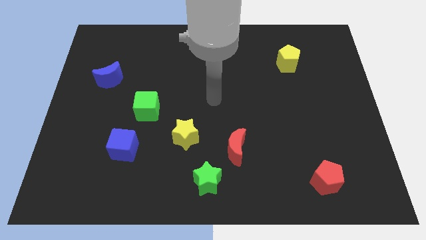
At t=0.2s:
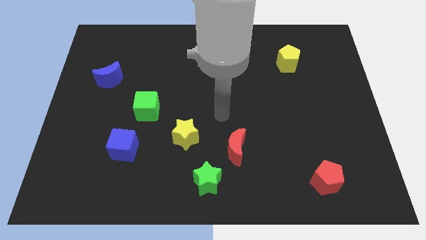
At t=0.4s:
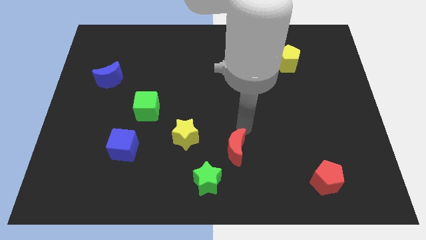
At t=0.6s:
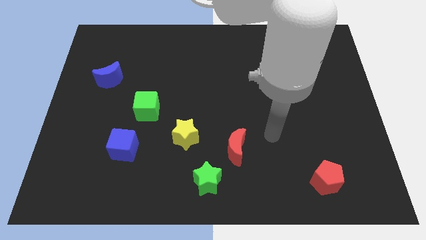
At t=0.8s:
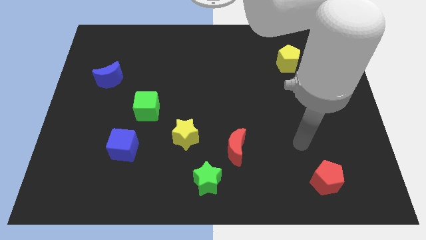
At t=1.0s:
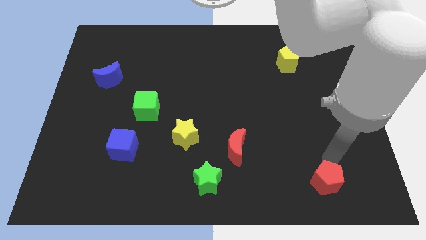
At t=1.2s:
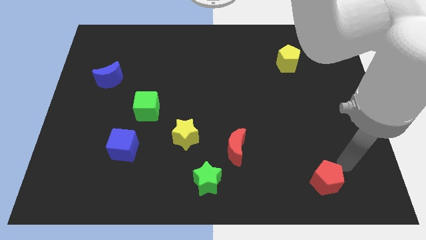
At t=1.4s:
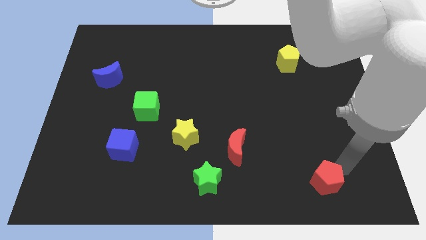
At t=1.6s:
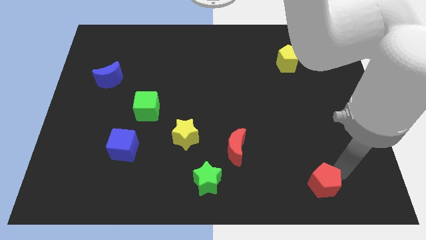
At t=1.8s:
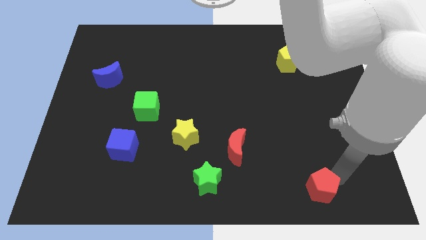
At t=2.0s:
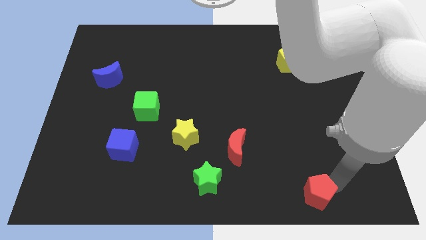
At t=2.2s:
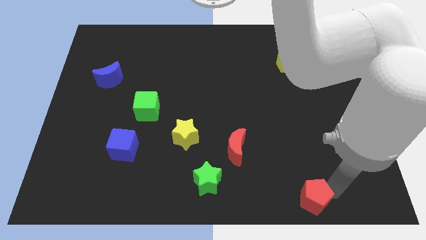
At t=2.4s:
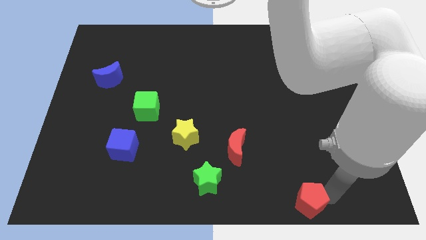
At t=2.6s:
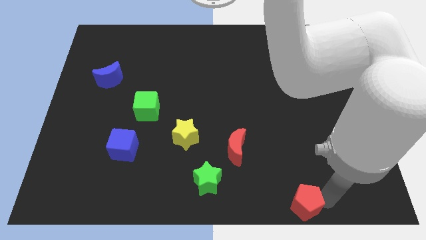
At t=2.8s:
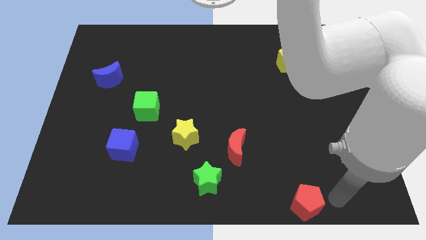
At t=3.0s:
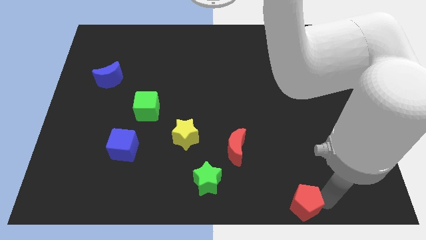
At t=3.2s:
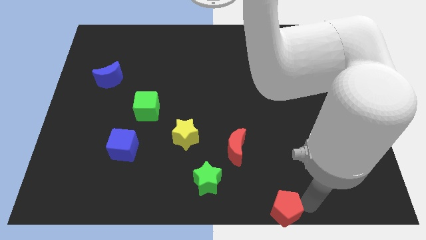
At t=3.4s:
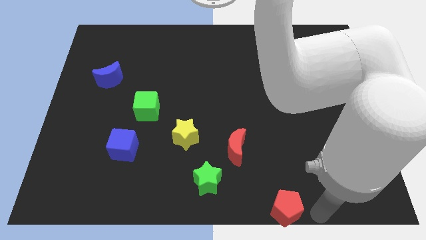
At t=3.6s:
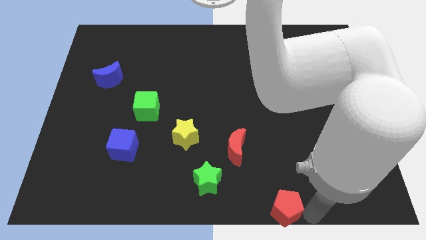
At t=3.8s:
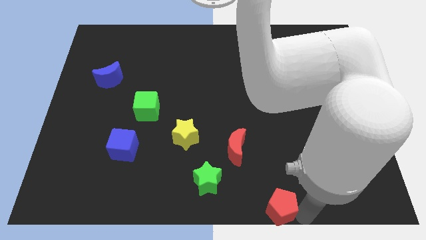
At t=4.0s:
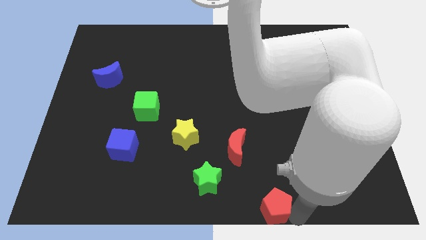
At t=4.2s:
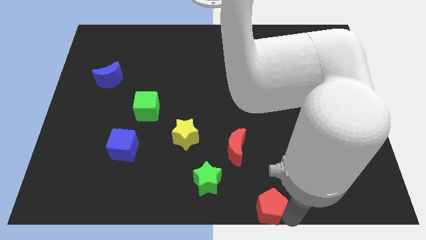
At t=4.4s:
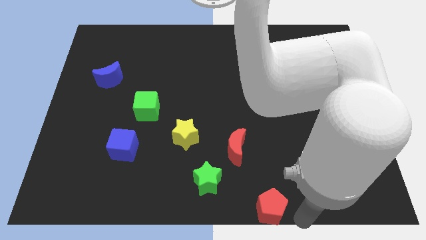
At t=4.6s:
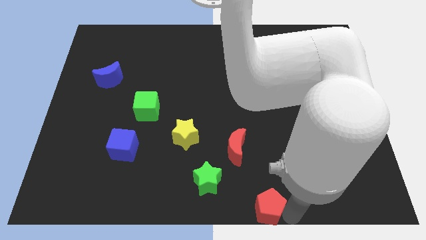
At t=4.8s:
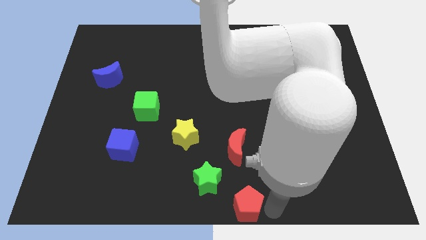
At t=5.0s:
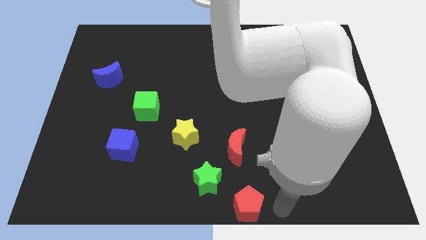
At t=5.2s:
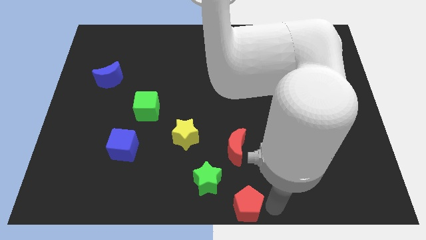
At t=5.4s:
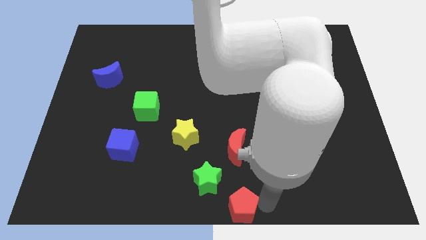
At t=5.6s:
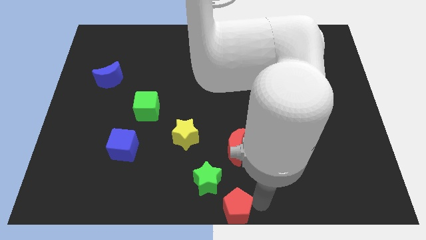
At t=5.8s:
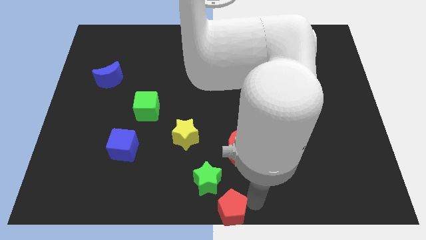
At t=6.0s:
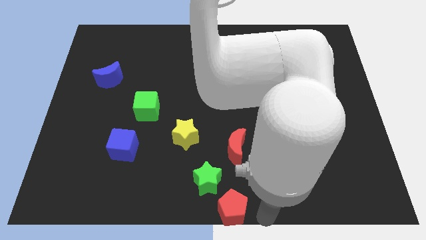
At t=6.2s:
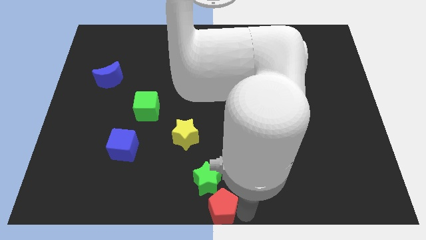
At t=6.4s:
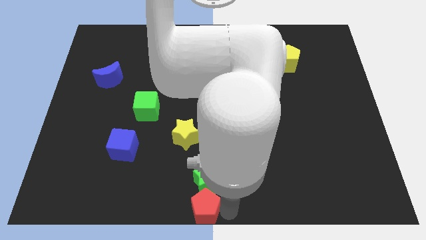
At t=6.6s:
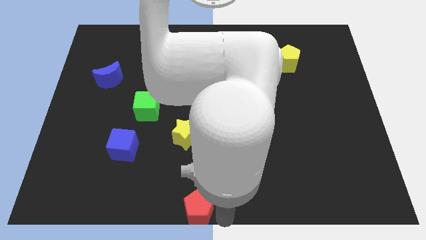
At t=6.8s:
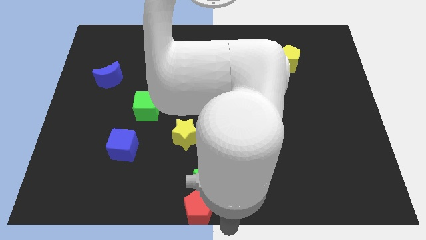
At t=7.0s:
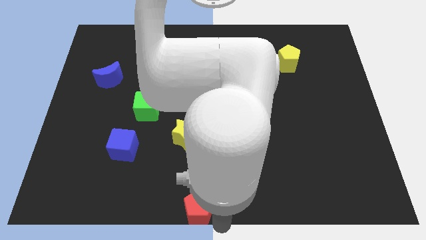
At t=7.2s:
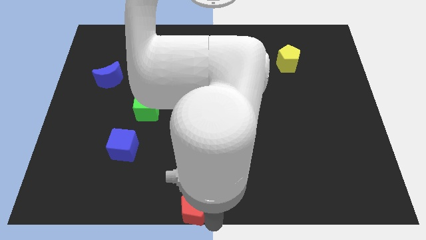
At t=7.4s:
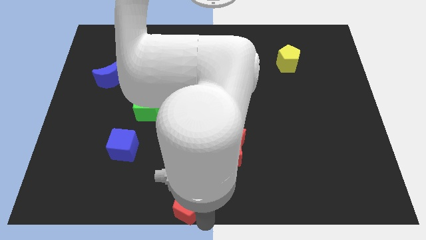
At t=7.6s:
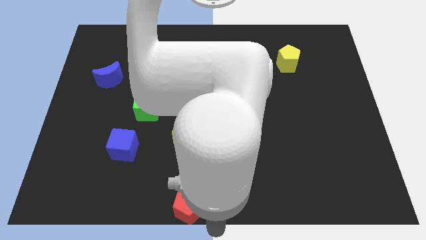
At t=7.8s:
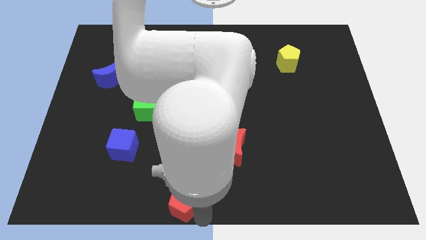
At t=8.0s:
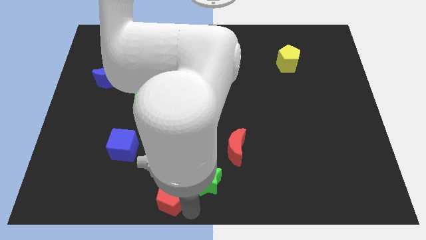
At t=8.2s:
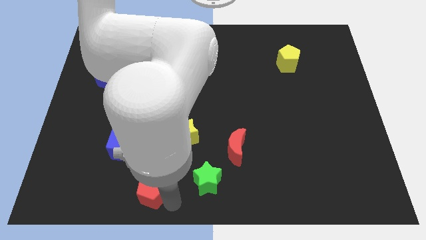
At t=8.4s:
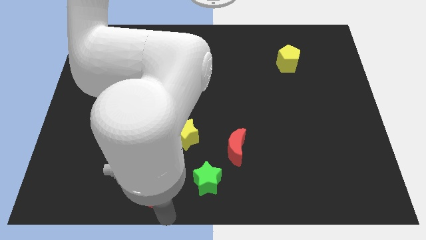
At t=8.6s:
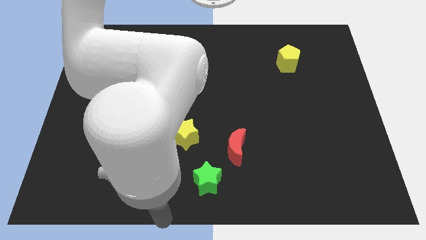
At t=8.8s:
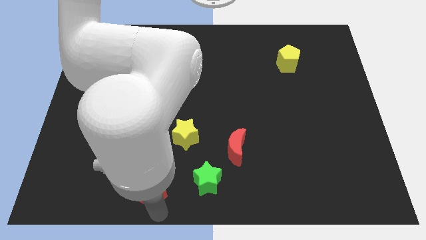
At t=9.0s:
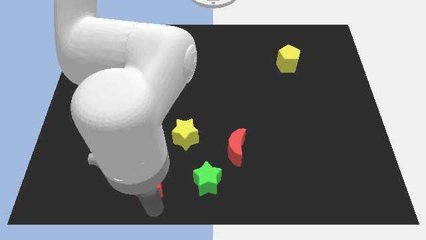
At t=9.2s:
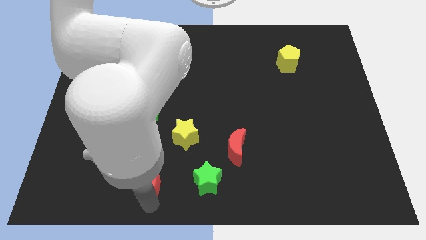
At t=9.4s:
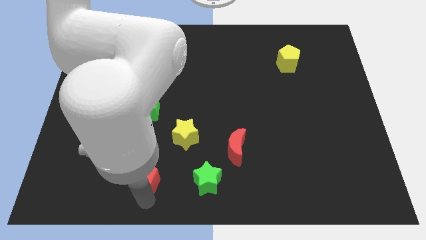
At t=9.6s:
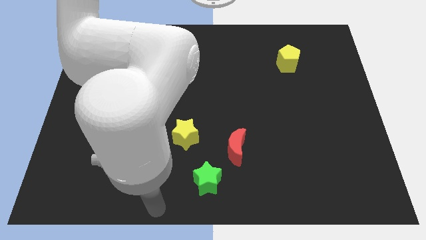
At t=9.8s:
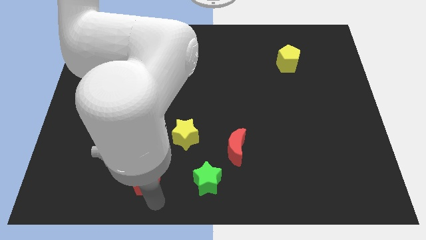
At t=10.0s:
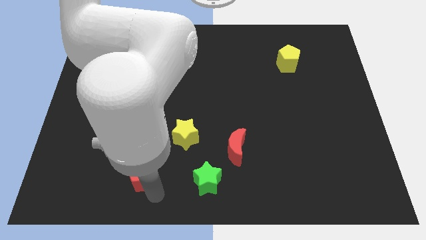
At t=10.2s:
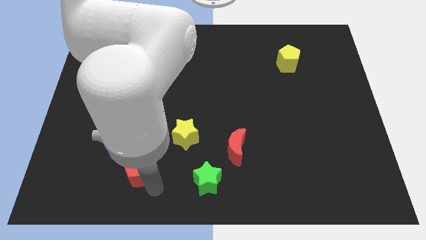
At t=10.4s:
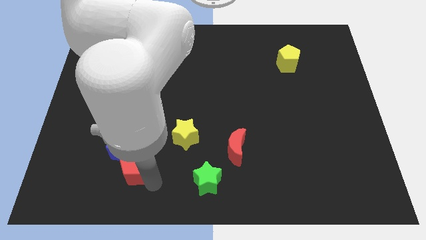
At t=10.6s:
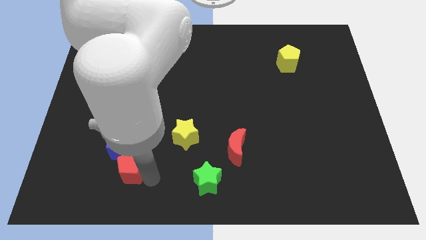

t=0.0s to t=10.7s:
push the red pentagon close to the blue cube

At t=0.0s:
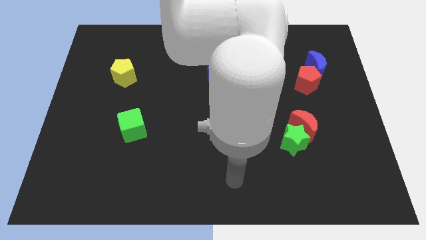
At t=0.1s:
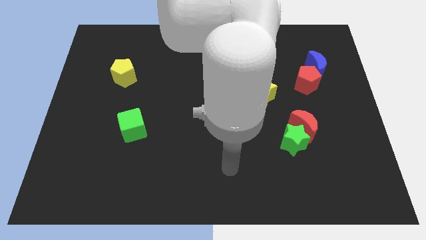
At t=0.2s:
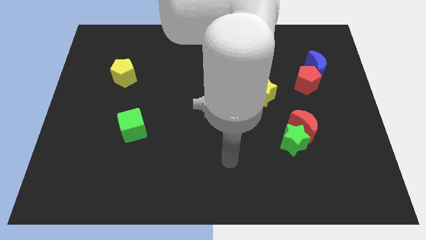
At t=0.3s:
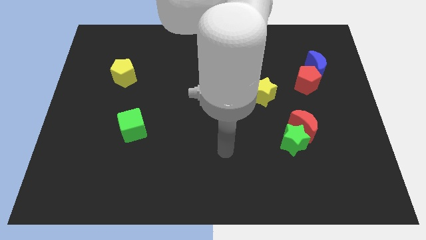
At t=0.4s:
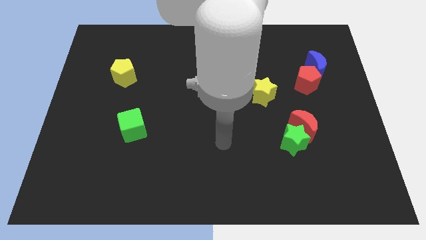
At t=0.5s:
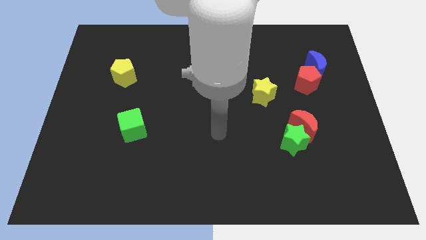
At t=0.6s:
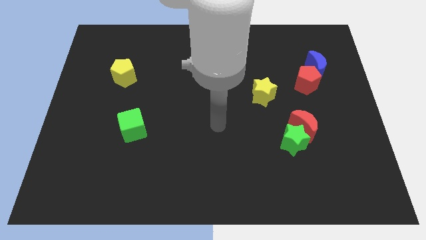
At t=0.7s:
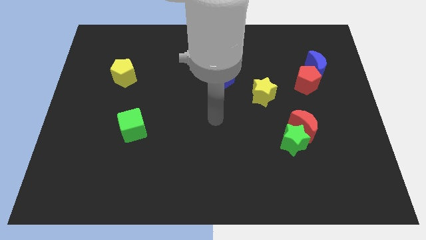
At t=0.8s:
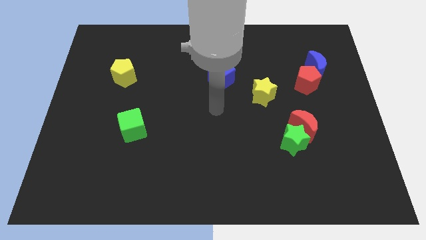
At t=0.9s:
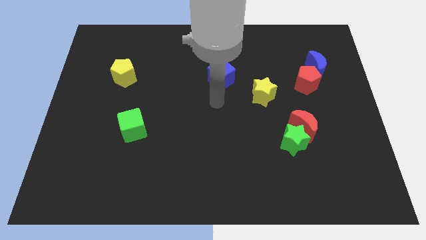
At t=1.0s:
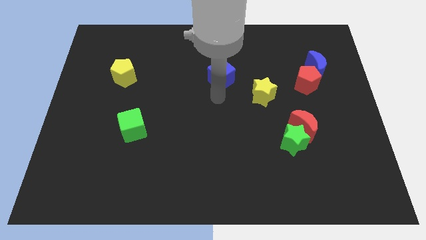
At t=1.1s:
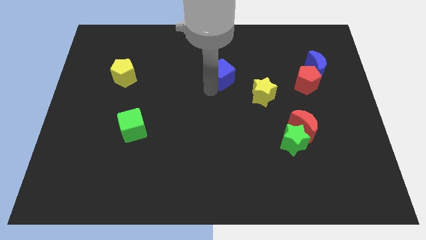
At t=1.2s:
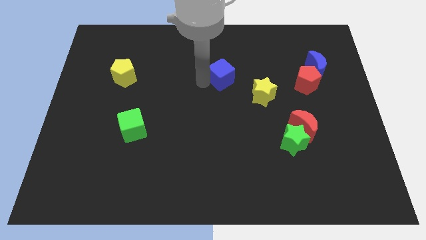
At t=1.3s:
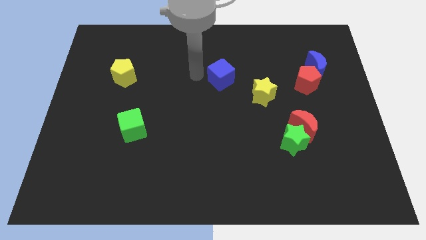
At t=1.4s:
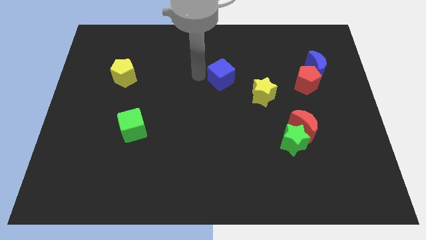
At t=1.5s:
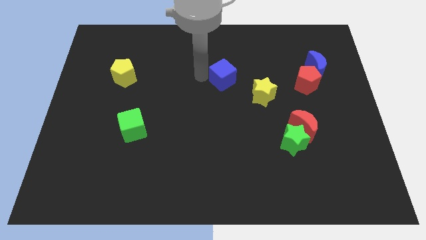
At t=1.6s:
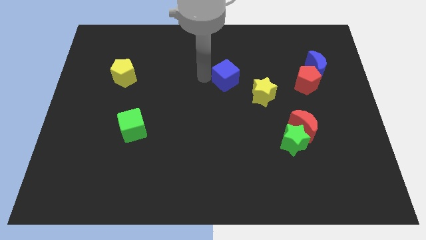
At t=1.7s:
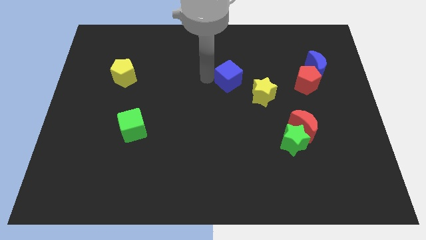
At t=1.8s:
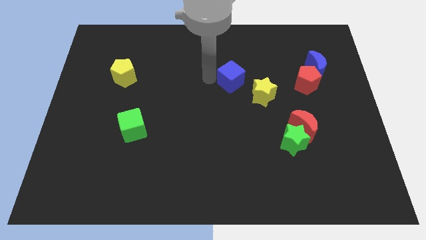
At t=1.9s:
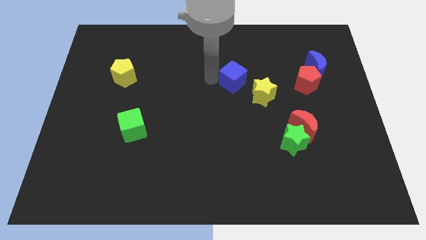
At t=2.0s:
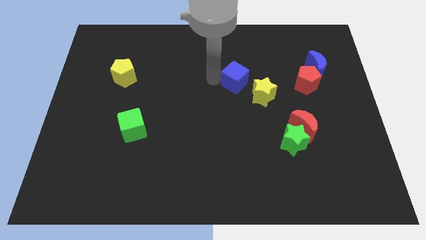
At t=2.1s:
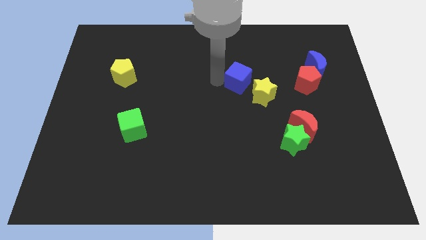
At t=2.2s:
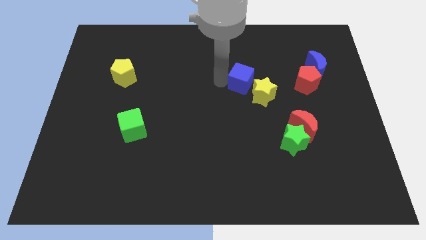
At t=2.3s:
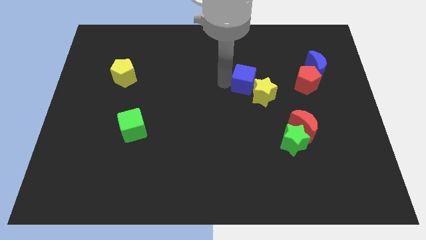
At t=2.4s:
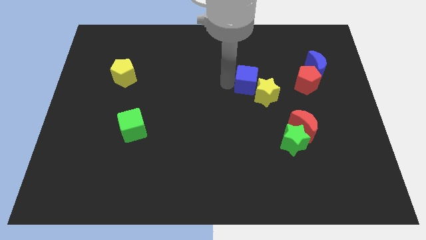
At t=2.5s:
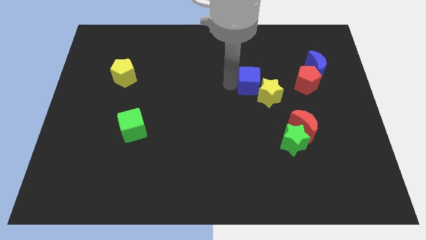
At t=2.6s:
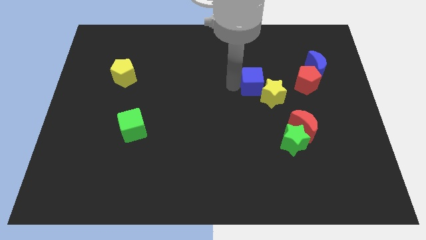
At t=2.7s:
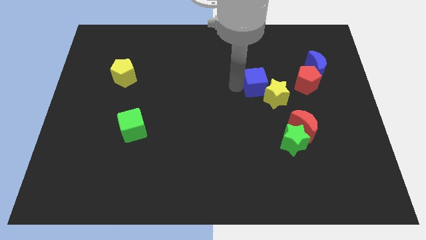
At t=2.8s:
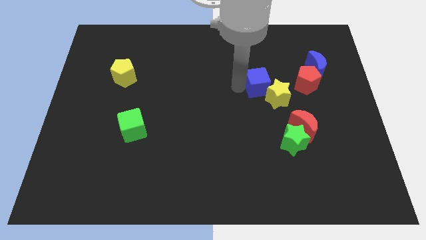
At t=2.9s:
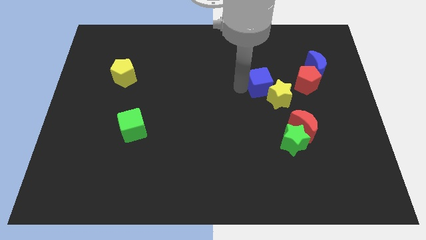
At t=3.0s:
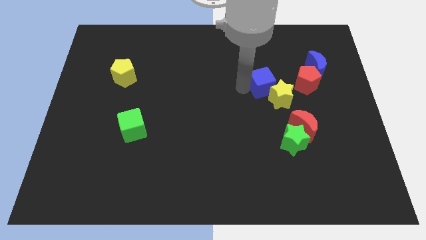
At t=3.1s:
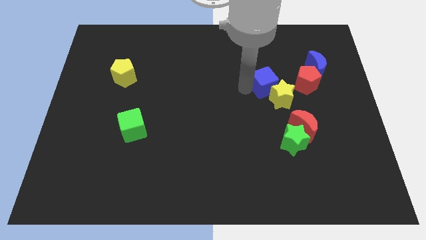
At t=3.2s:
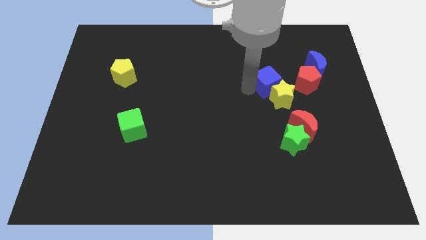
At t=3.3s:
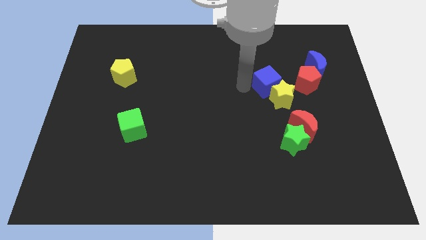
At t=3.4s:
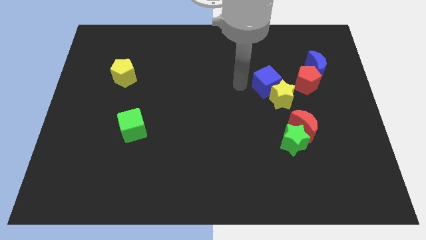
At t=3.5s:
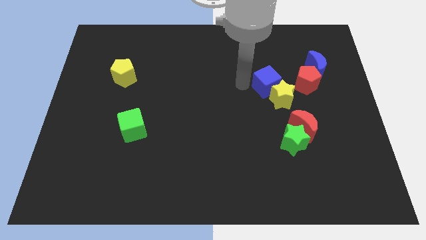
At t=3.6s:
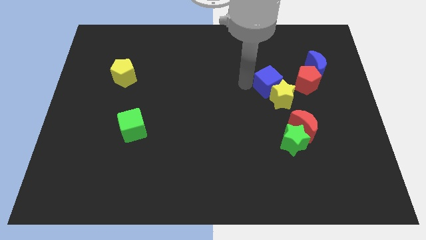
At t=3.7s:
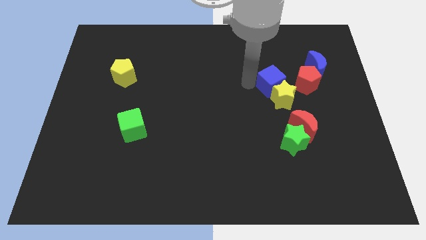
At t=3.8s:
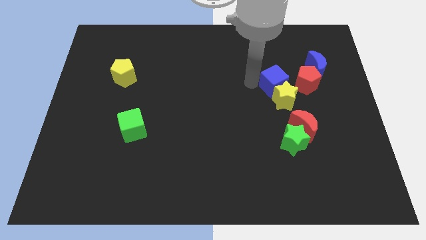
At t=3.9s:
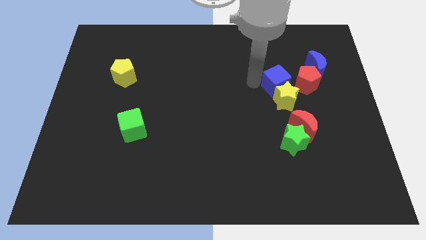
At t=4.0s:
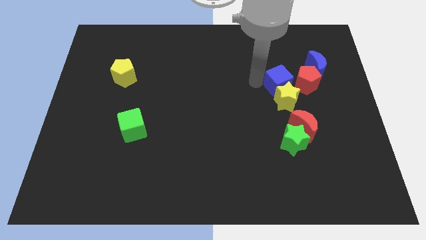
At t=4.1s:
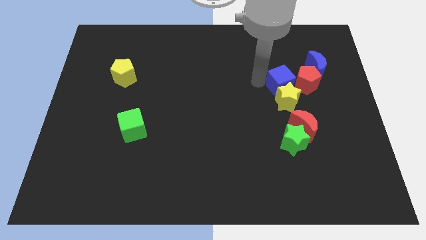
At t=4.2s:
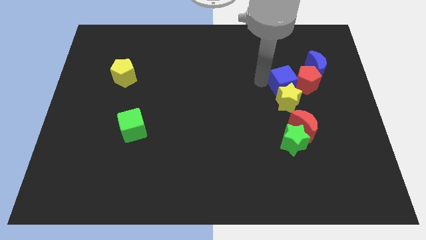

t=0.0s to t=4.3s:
slide the blue cube to the red pentagon
